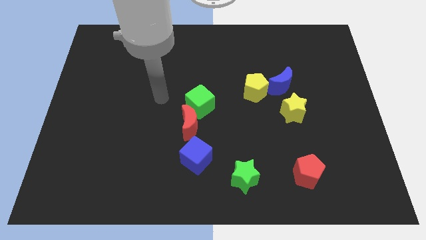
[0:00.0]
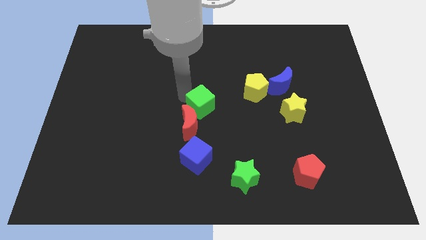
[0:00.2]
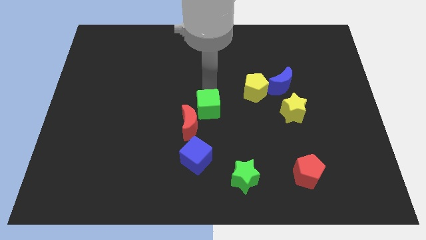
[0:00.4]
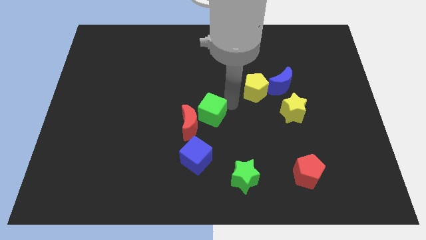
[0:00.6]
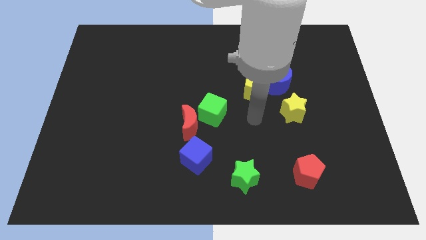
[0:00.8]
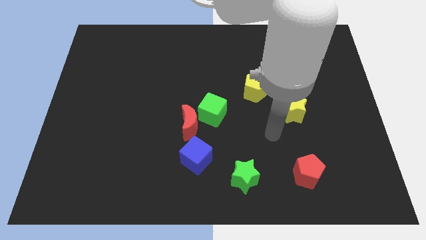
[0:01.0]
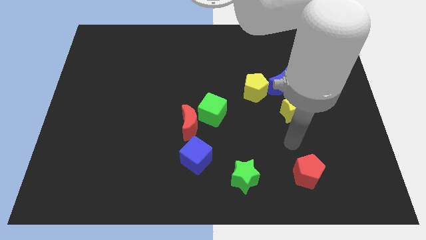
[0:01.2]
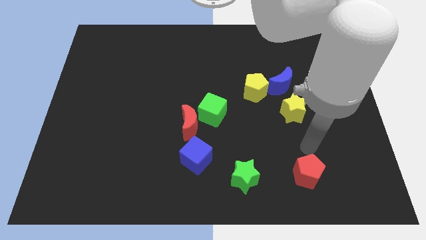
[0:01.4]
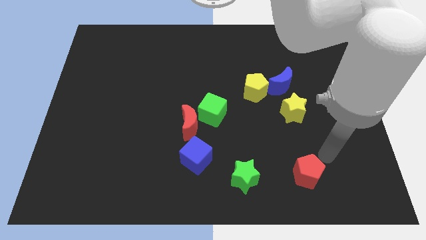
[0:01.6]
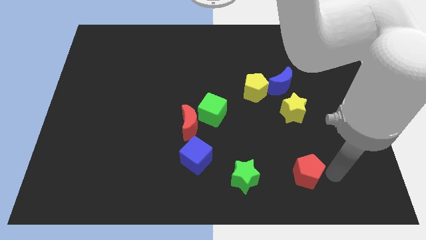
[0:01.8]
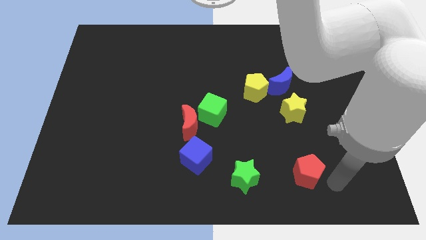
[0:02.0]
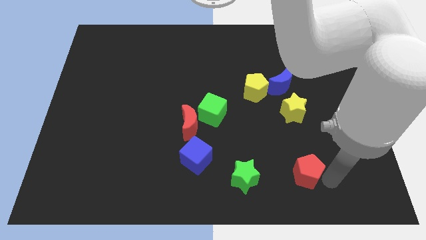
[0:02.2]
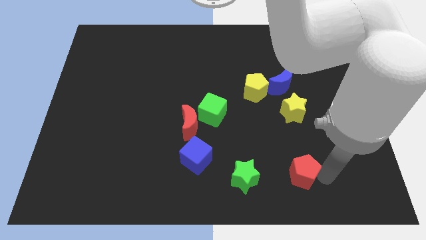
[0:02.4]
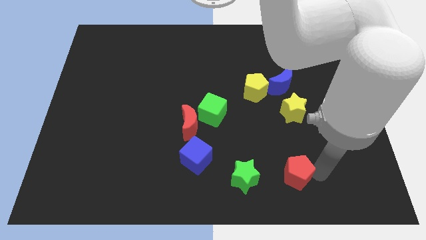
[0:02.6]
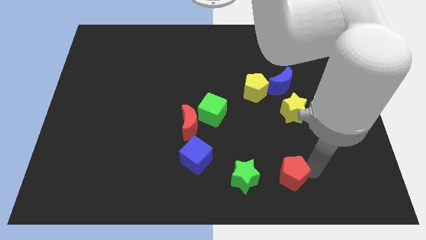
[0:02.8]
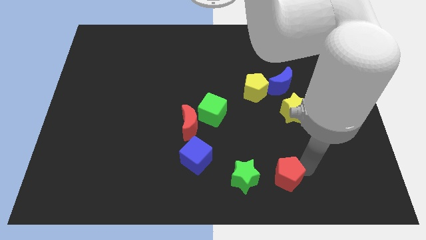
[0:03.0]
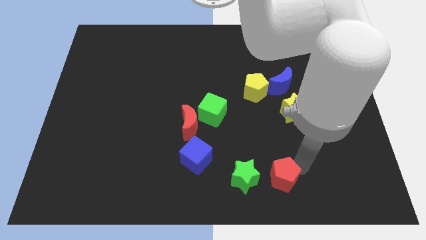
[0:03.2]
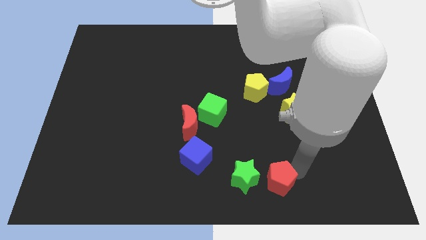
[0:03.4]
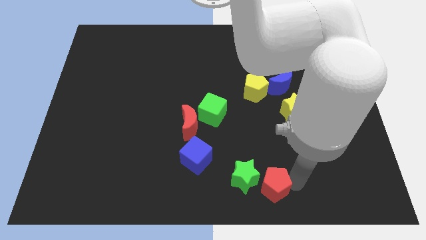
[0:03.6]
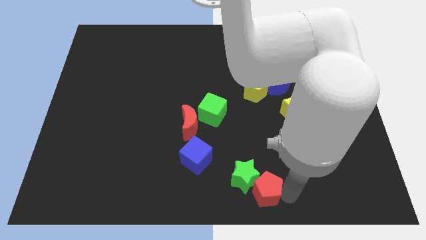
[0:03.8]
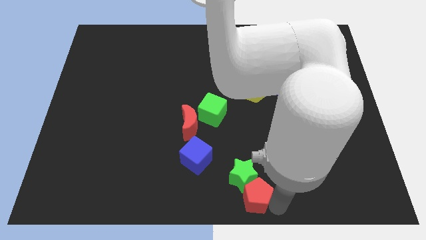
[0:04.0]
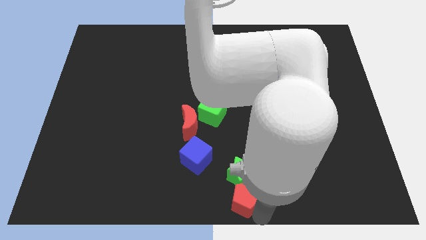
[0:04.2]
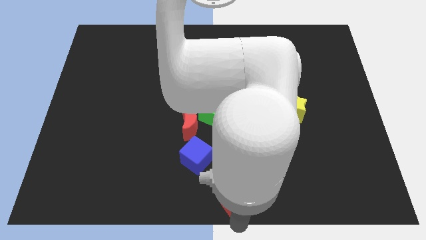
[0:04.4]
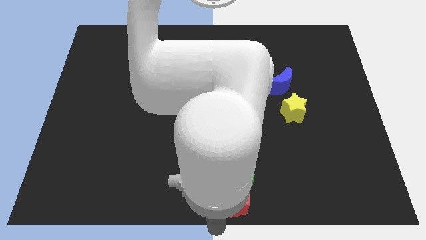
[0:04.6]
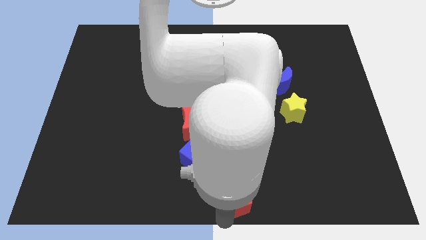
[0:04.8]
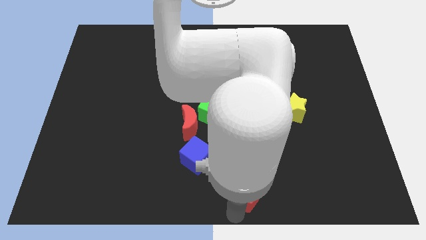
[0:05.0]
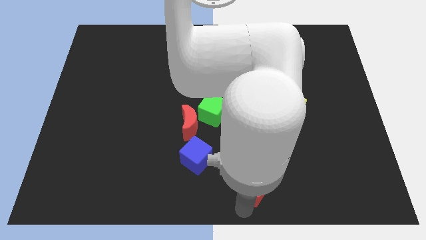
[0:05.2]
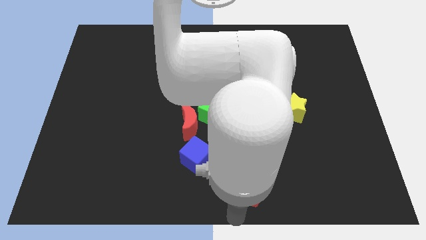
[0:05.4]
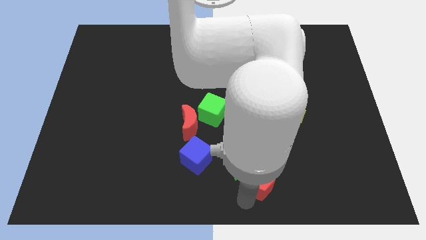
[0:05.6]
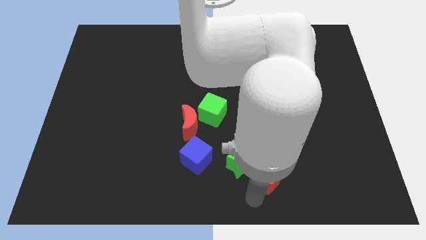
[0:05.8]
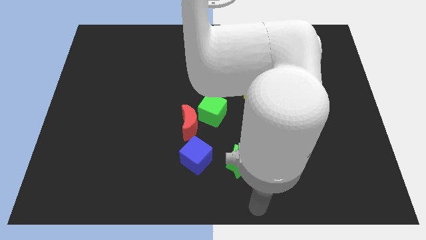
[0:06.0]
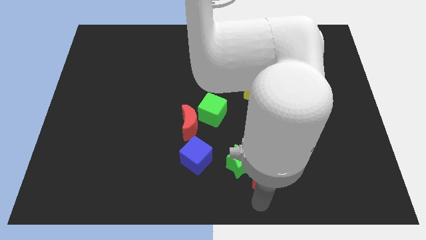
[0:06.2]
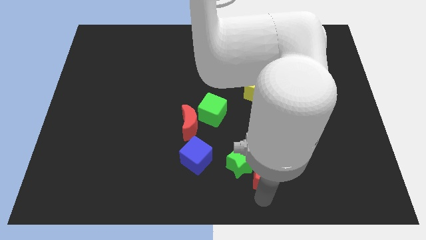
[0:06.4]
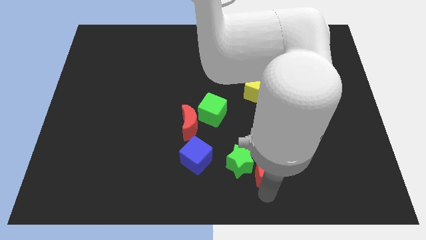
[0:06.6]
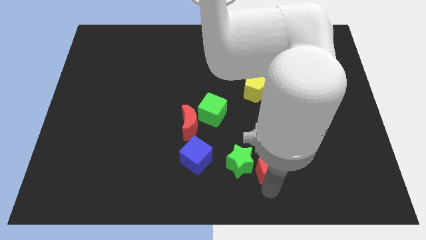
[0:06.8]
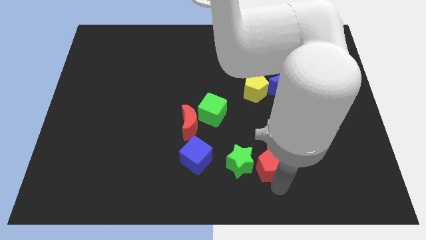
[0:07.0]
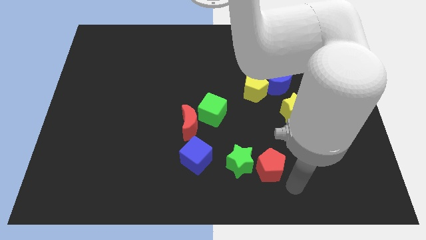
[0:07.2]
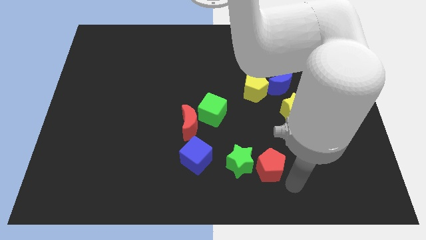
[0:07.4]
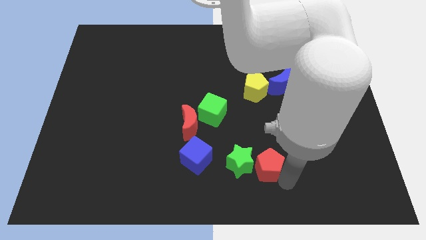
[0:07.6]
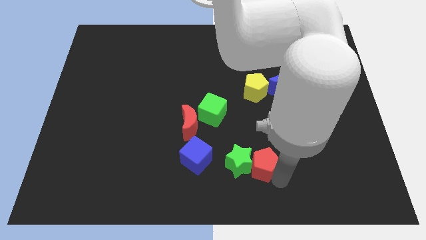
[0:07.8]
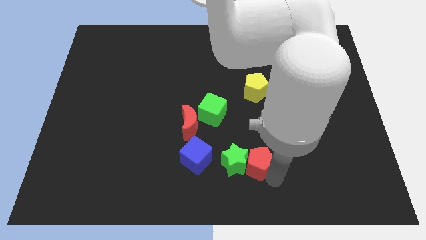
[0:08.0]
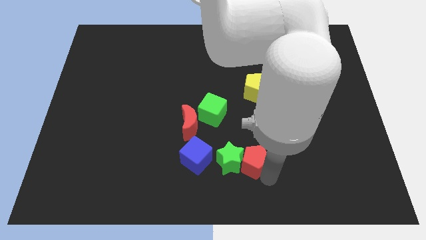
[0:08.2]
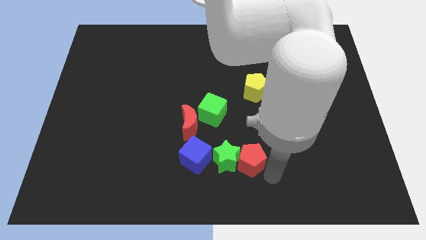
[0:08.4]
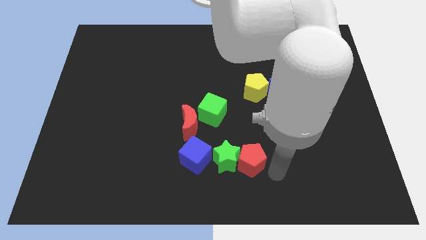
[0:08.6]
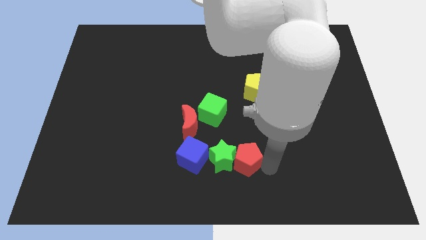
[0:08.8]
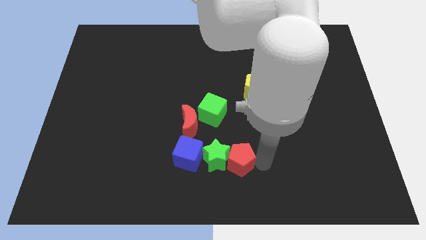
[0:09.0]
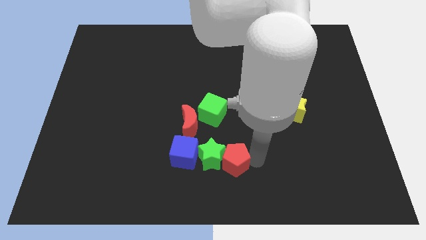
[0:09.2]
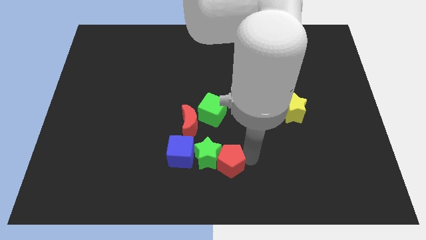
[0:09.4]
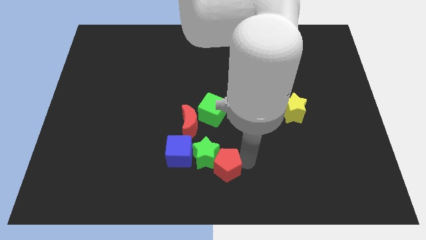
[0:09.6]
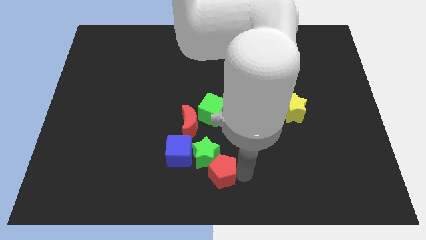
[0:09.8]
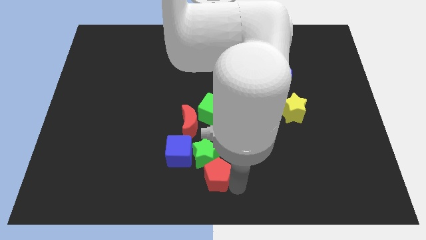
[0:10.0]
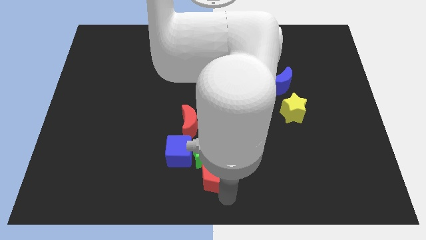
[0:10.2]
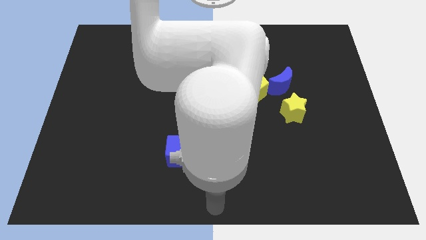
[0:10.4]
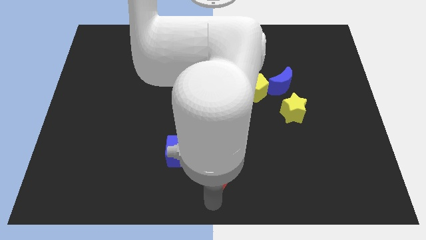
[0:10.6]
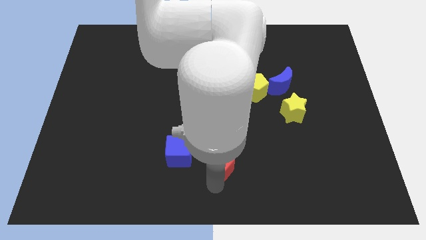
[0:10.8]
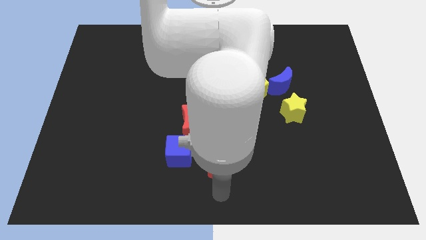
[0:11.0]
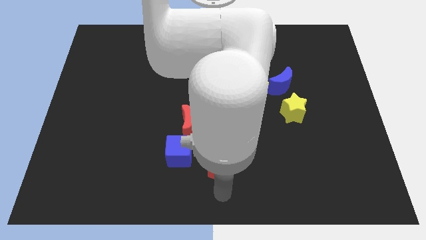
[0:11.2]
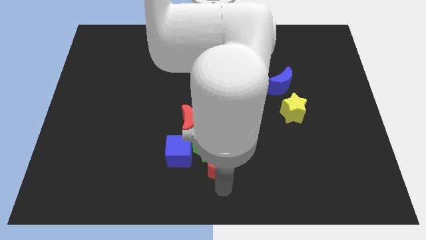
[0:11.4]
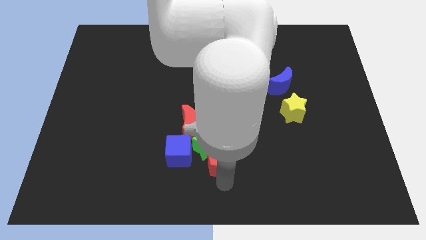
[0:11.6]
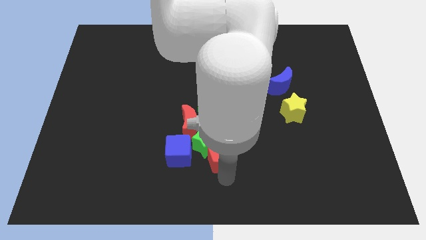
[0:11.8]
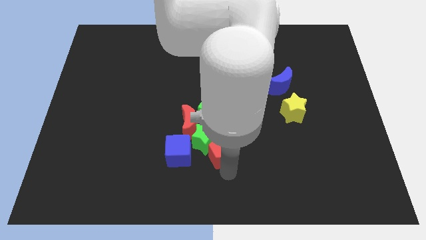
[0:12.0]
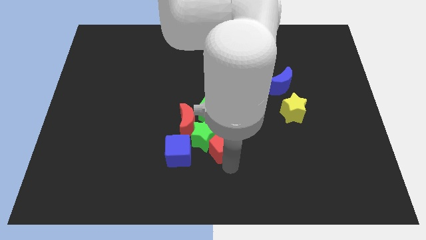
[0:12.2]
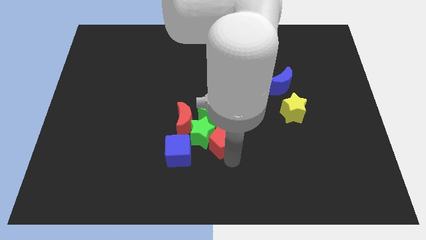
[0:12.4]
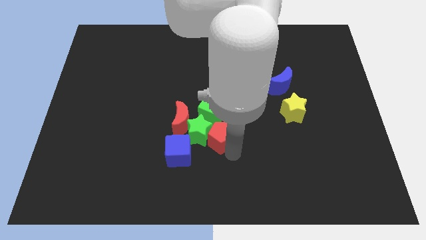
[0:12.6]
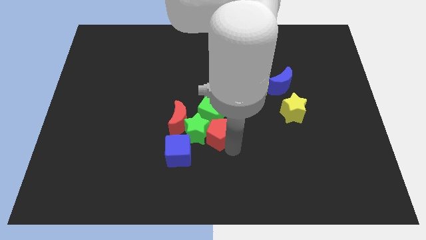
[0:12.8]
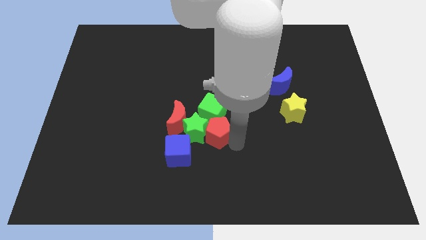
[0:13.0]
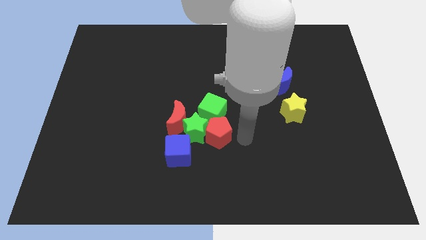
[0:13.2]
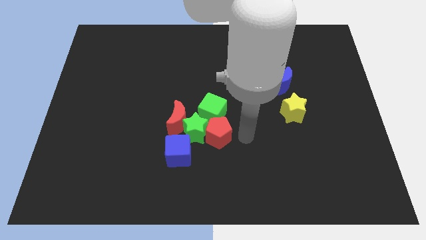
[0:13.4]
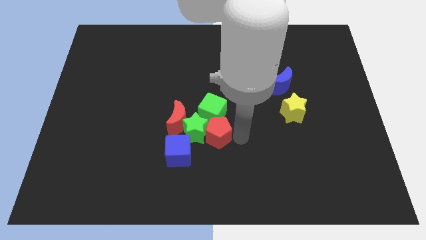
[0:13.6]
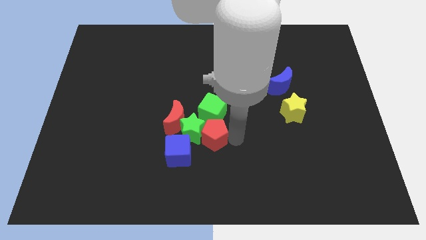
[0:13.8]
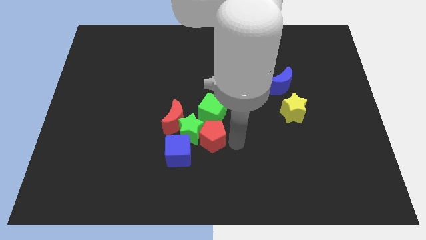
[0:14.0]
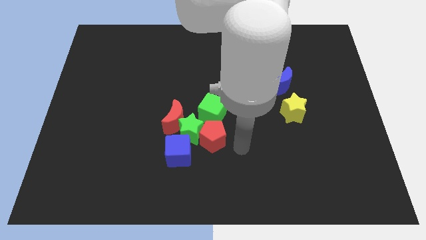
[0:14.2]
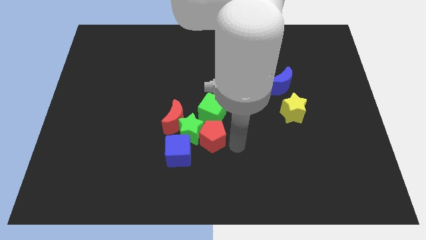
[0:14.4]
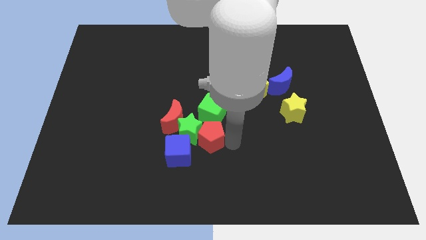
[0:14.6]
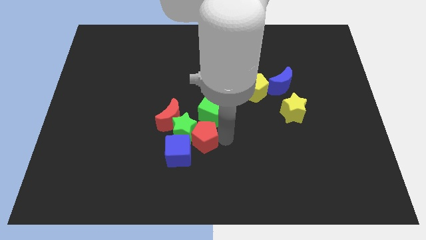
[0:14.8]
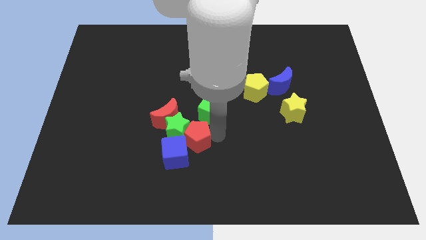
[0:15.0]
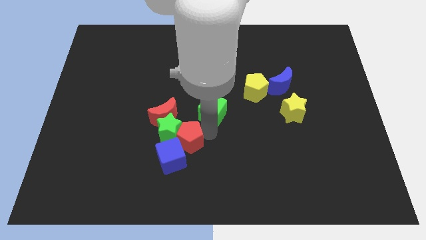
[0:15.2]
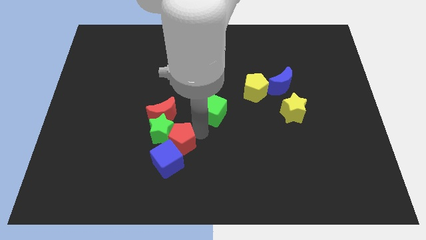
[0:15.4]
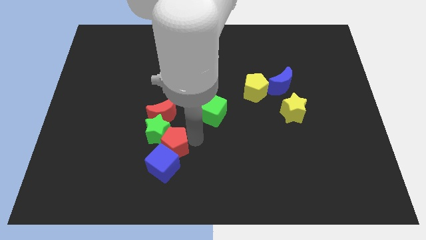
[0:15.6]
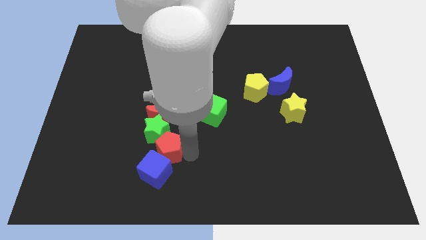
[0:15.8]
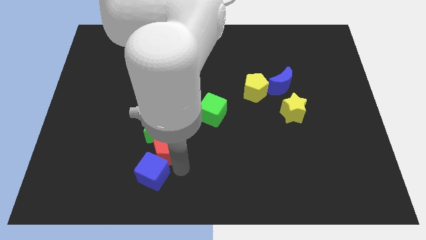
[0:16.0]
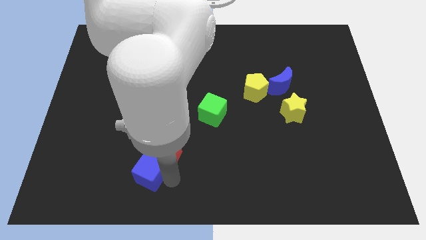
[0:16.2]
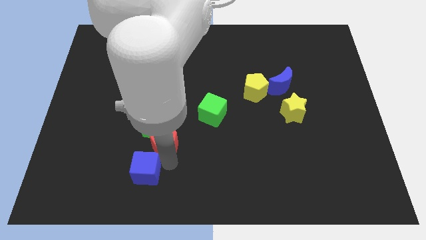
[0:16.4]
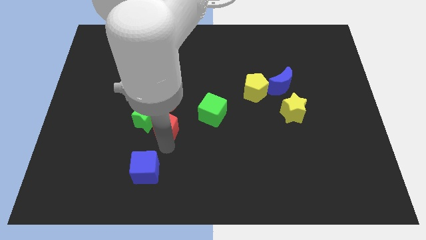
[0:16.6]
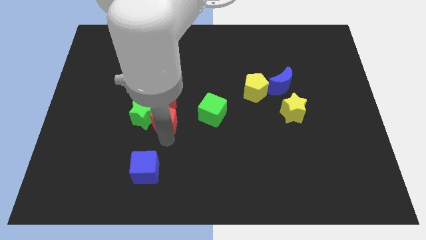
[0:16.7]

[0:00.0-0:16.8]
move the red pentagon next to the red moon
